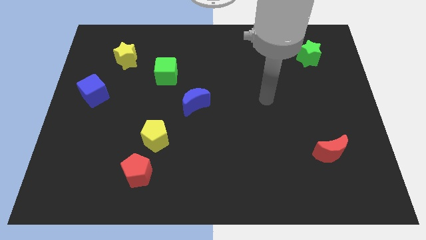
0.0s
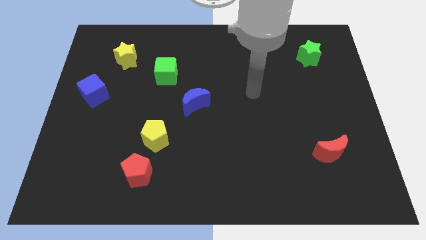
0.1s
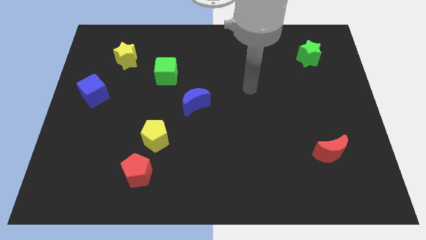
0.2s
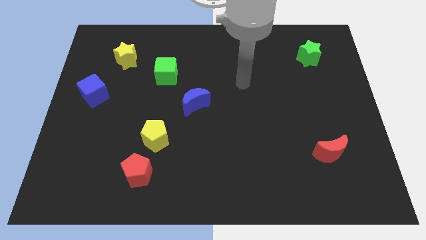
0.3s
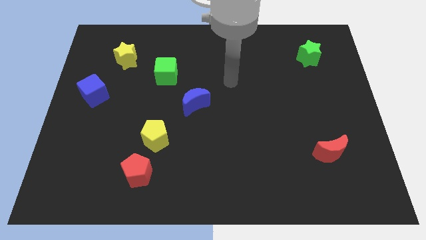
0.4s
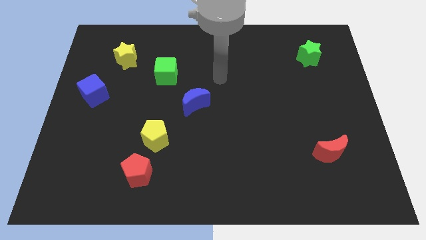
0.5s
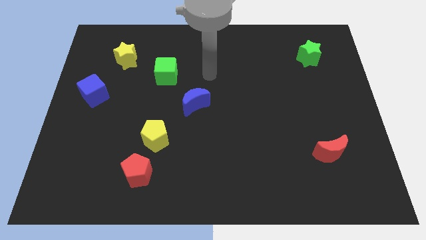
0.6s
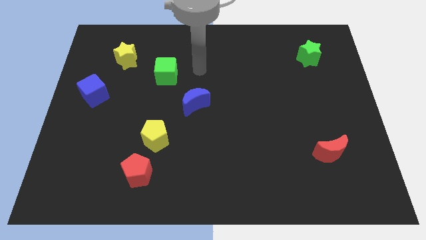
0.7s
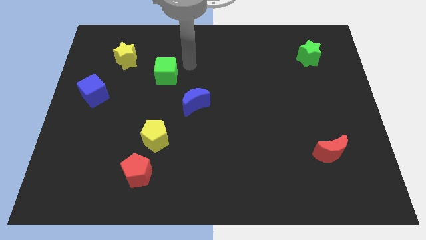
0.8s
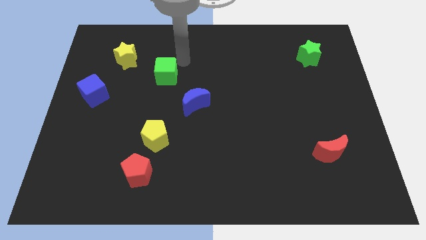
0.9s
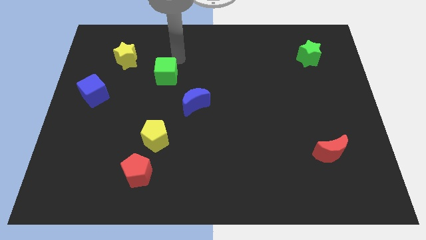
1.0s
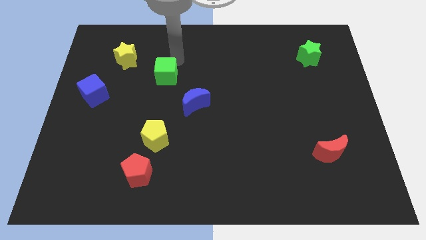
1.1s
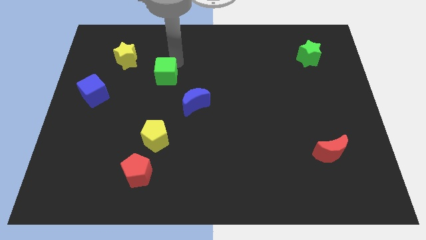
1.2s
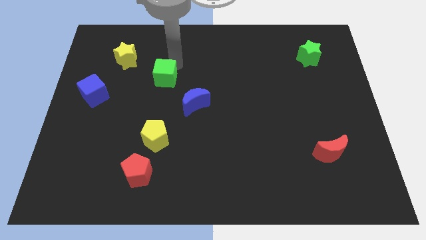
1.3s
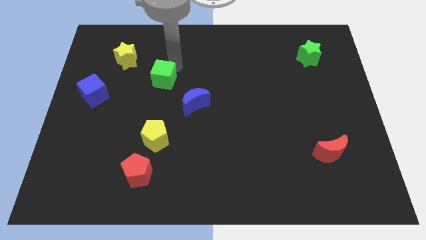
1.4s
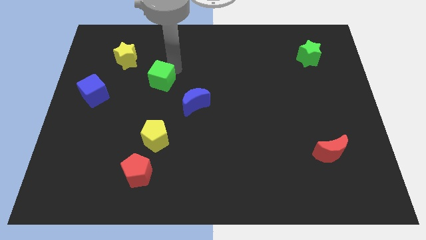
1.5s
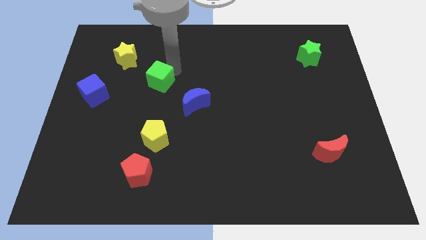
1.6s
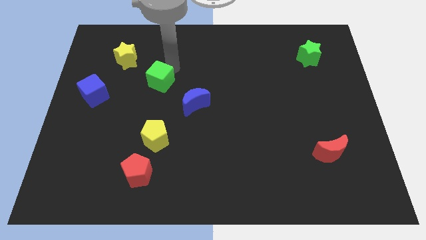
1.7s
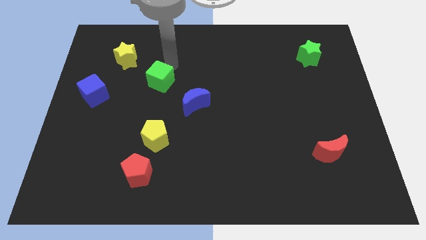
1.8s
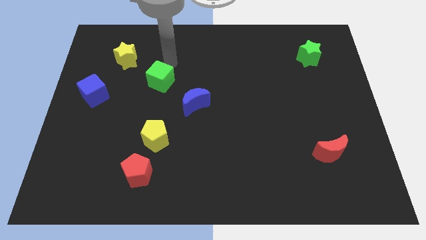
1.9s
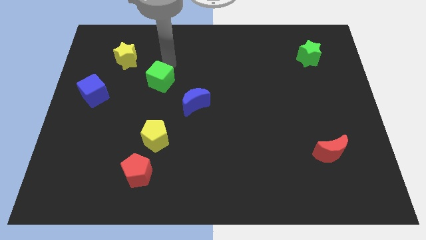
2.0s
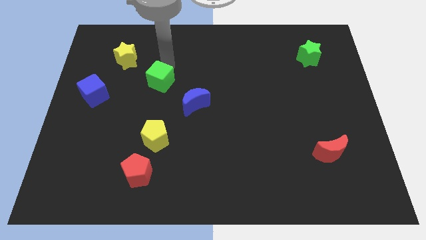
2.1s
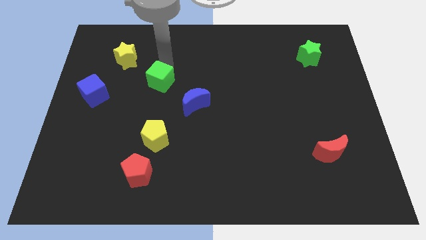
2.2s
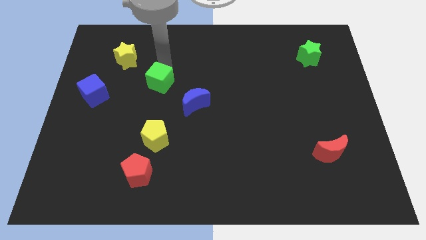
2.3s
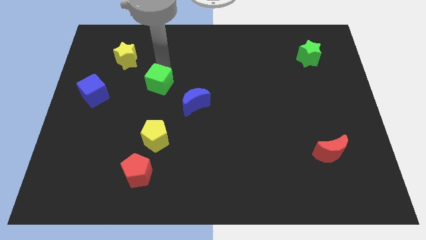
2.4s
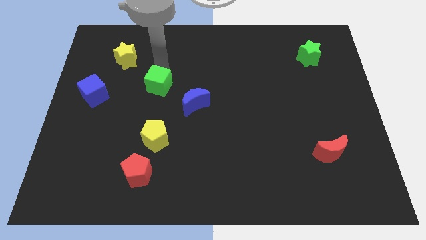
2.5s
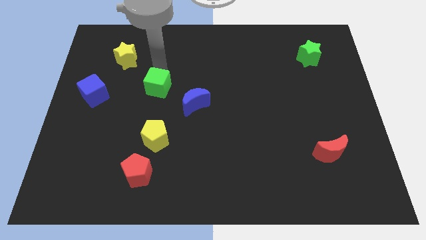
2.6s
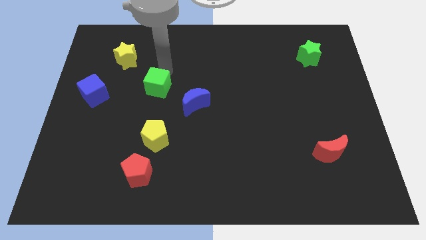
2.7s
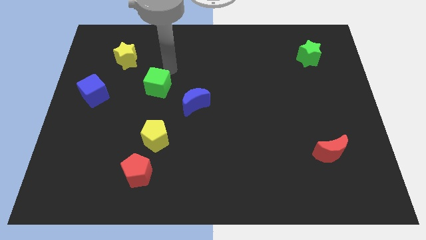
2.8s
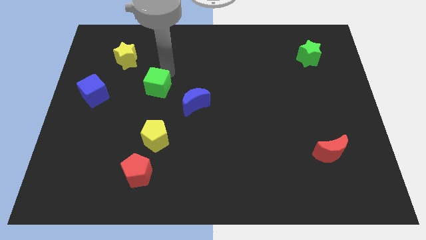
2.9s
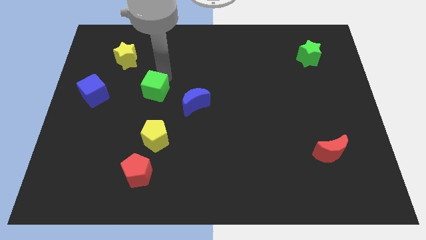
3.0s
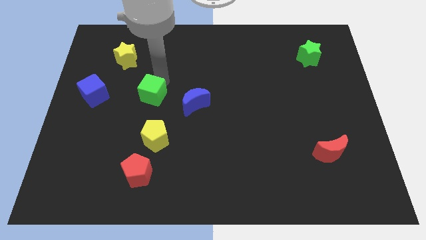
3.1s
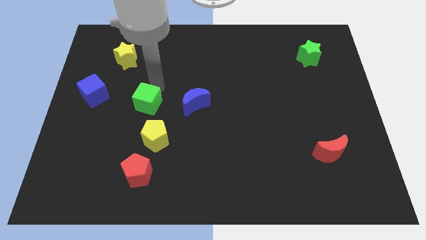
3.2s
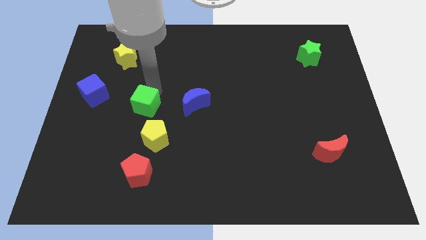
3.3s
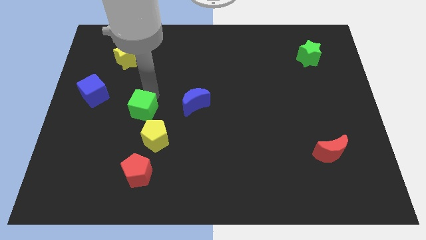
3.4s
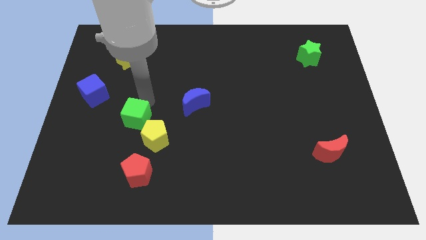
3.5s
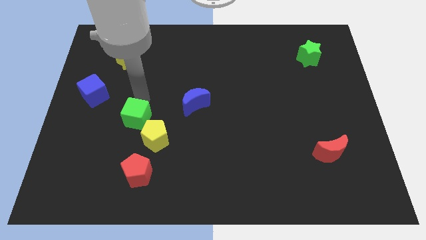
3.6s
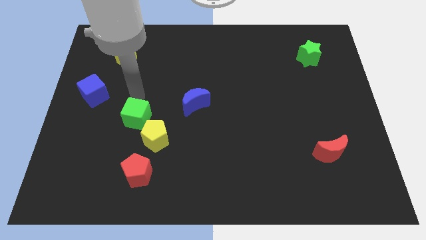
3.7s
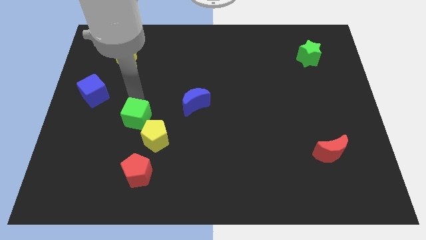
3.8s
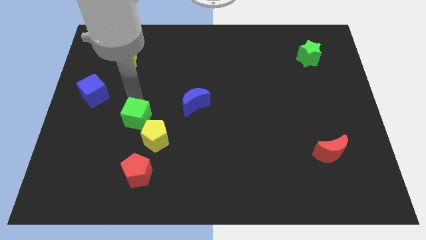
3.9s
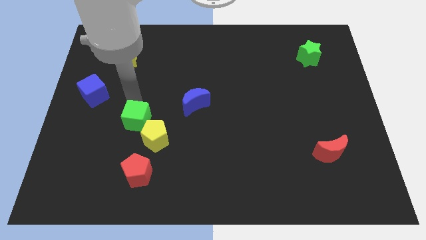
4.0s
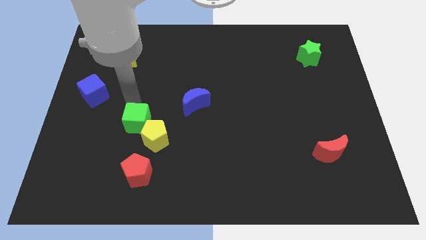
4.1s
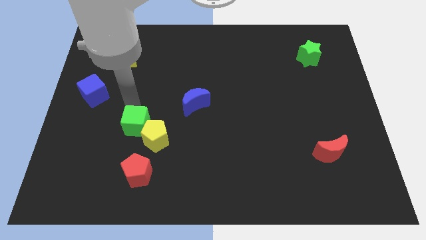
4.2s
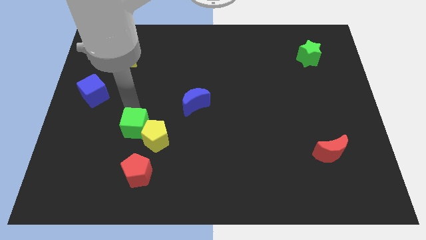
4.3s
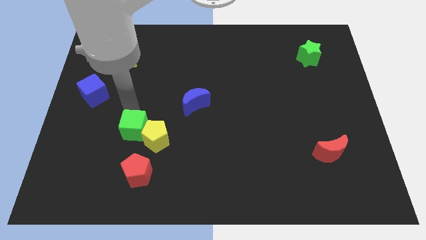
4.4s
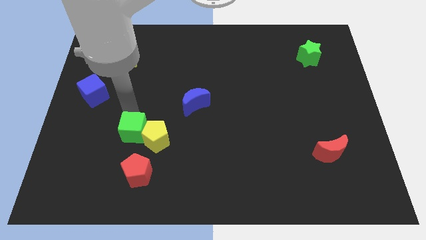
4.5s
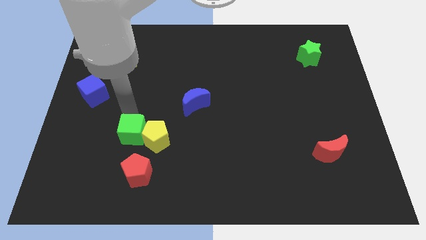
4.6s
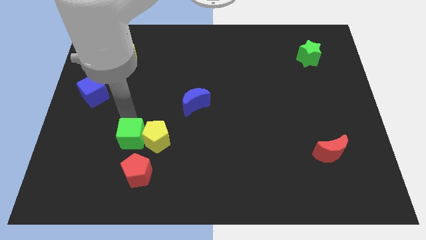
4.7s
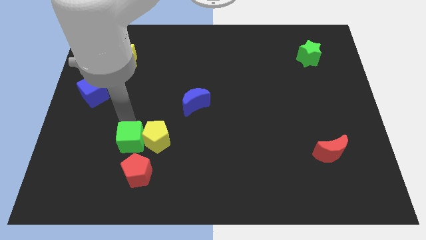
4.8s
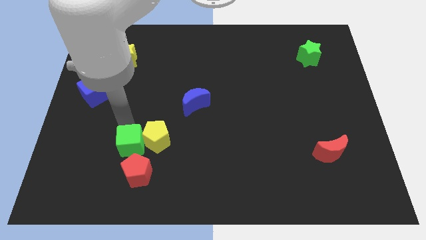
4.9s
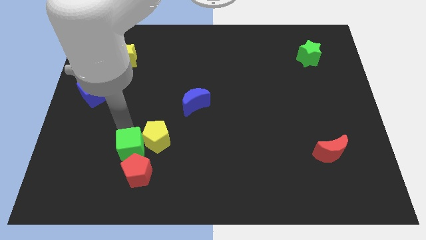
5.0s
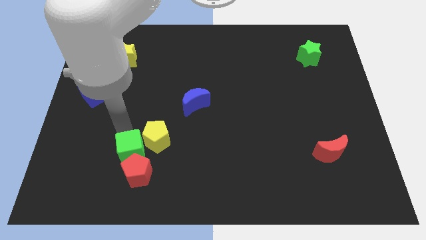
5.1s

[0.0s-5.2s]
move the green cube next to the red pentagon

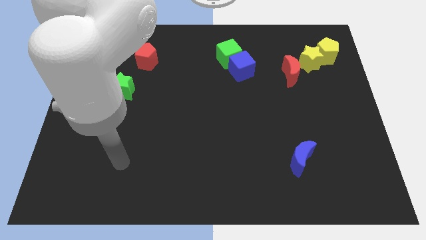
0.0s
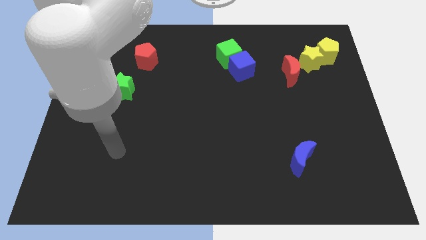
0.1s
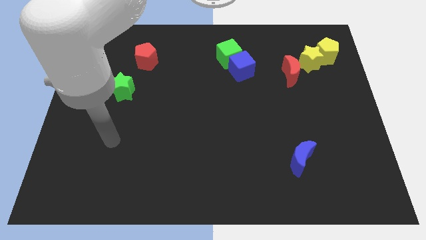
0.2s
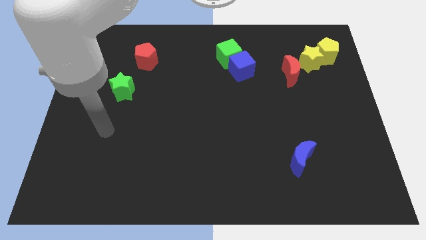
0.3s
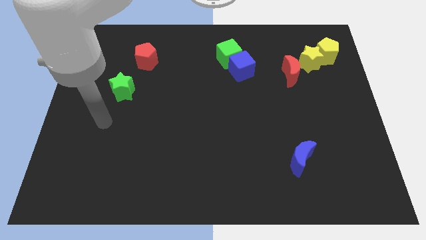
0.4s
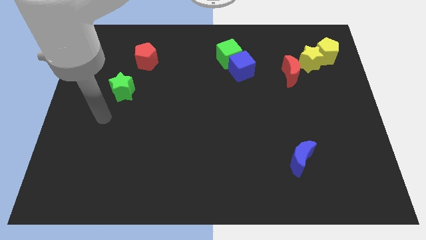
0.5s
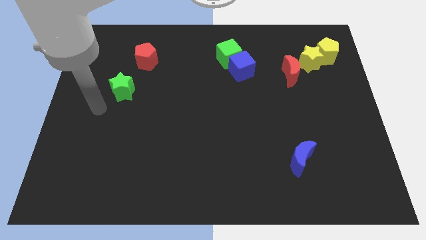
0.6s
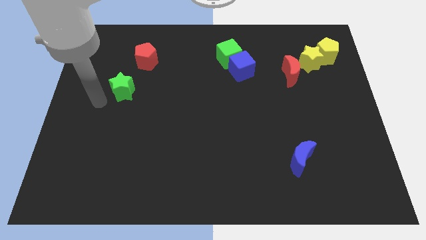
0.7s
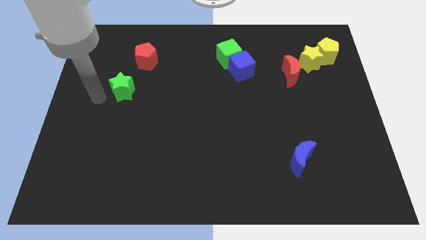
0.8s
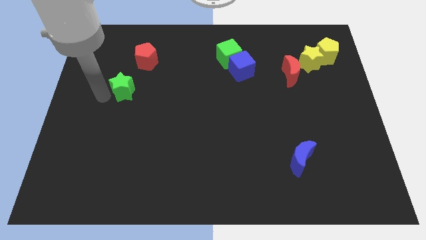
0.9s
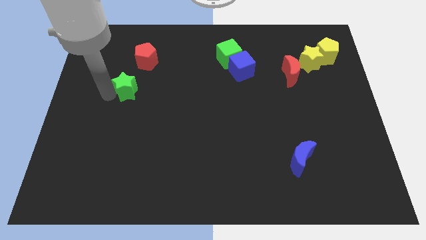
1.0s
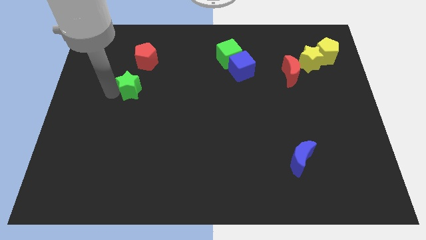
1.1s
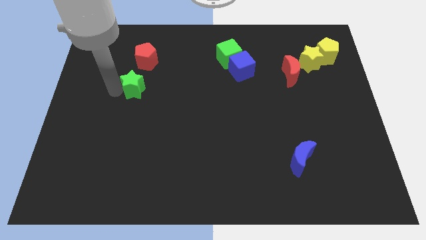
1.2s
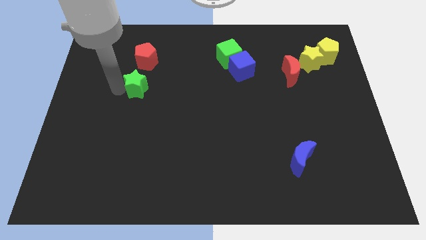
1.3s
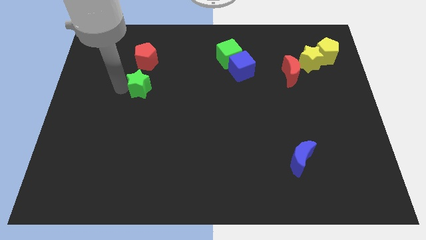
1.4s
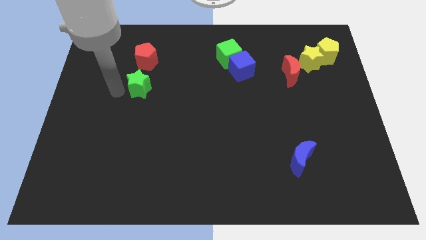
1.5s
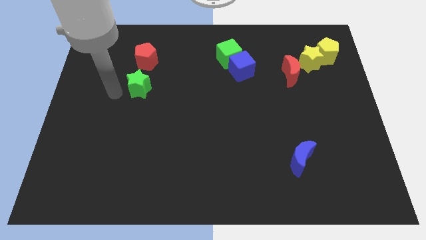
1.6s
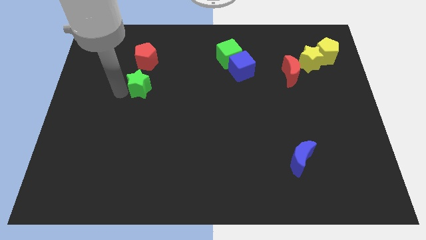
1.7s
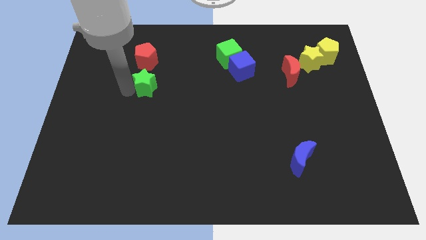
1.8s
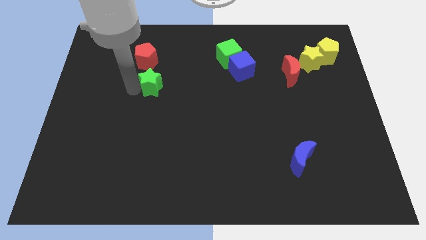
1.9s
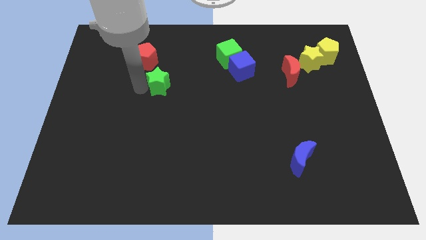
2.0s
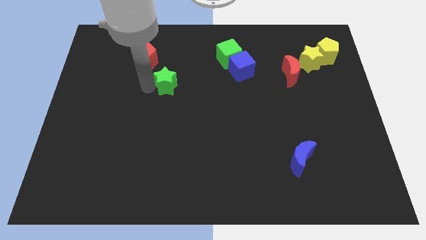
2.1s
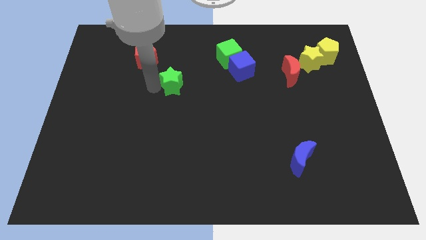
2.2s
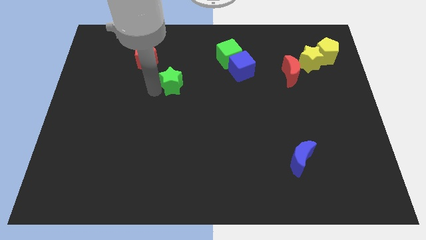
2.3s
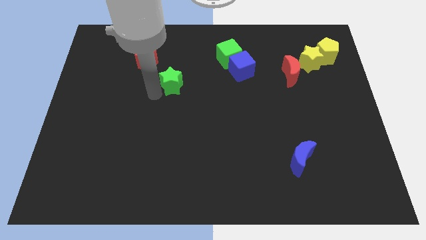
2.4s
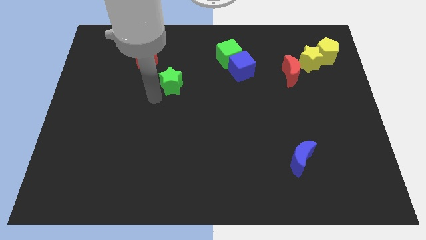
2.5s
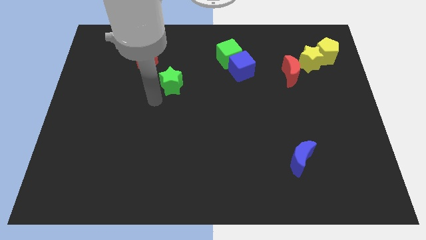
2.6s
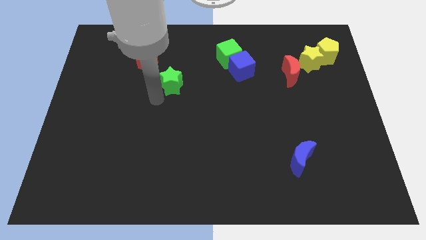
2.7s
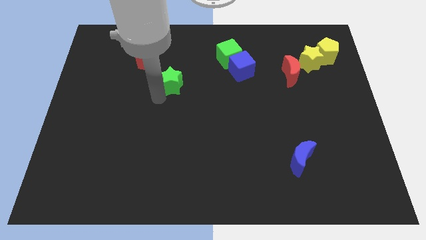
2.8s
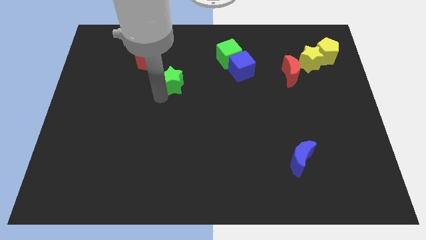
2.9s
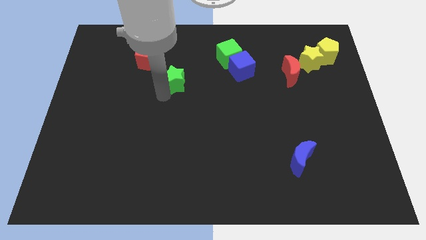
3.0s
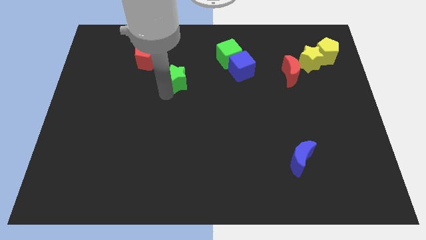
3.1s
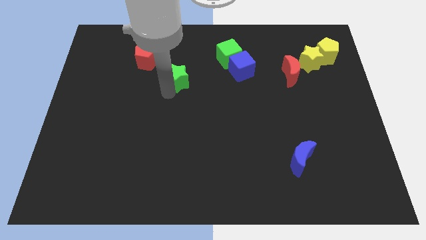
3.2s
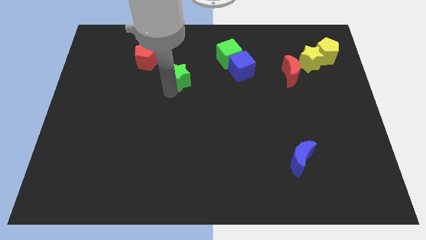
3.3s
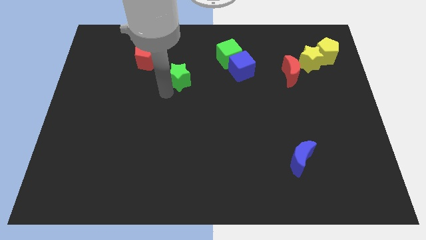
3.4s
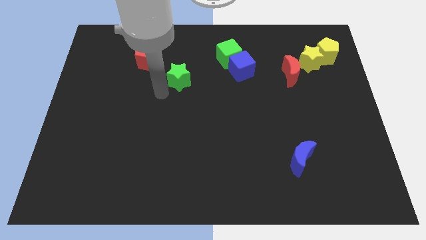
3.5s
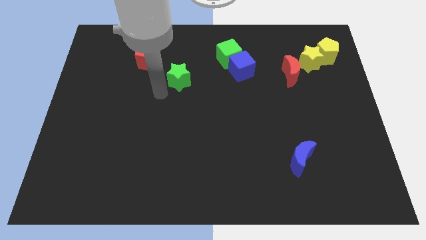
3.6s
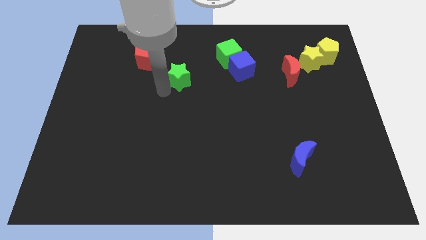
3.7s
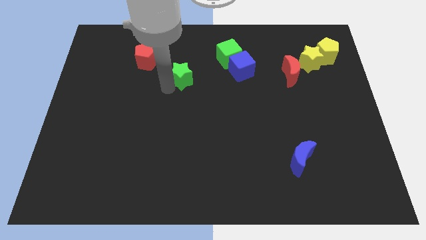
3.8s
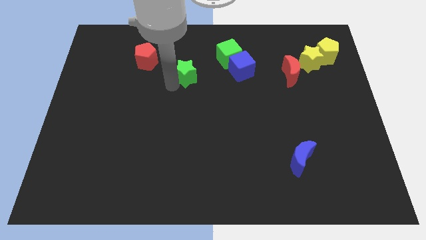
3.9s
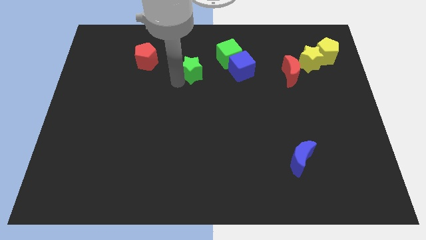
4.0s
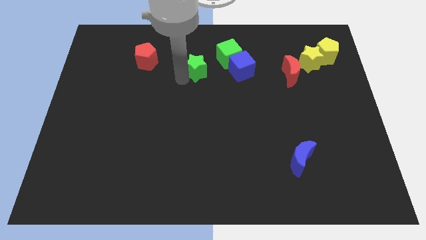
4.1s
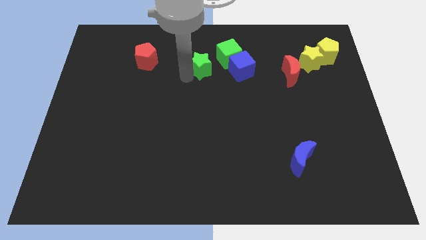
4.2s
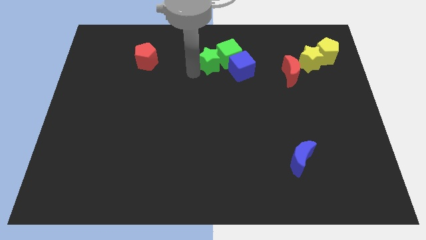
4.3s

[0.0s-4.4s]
put the green star next to the green cube
